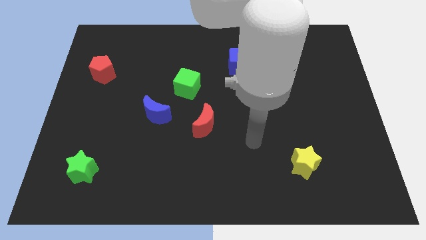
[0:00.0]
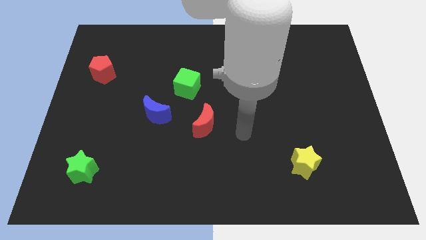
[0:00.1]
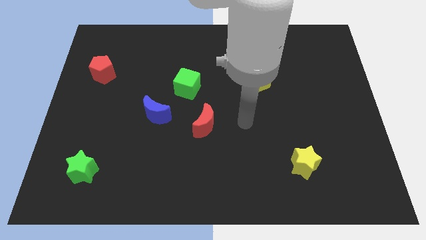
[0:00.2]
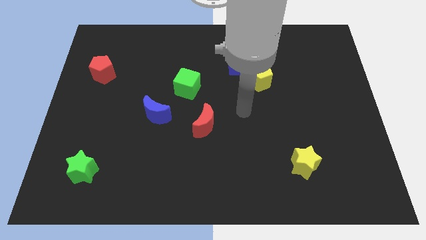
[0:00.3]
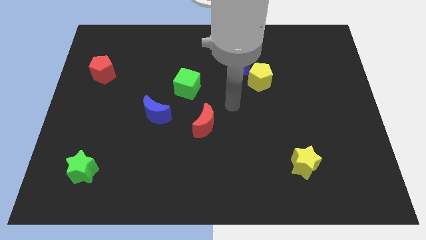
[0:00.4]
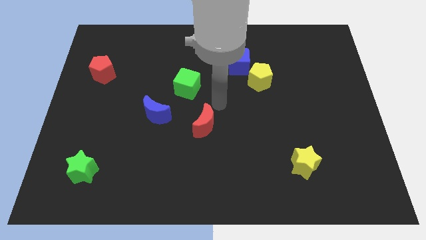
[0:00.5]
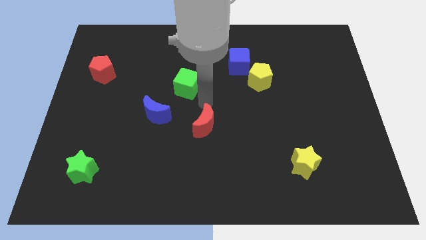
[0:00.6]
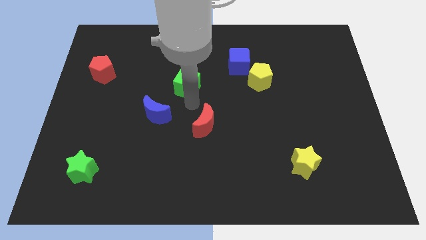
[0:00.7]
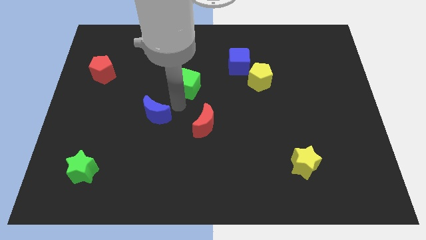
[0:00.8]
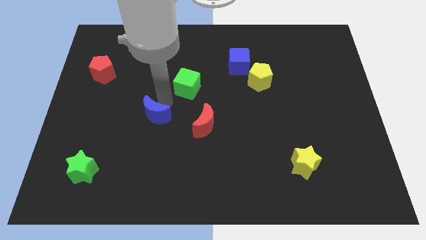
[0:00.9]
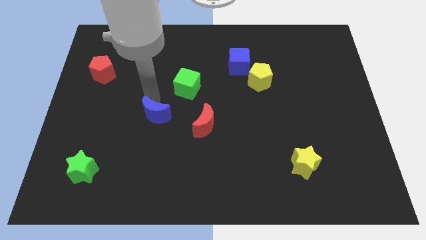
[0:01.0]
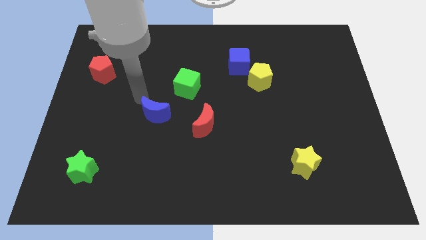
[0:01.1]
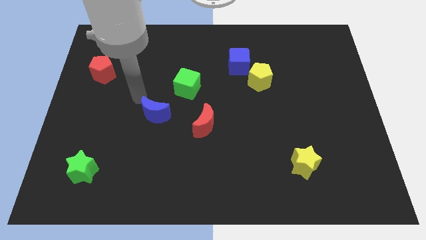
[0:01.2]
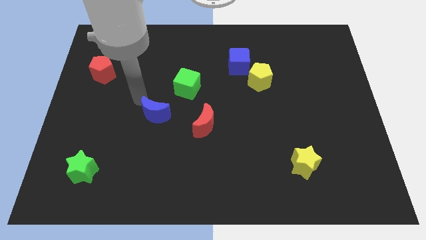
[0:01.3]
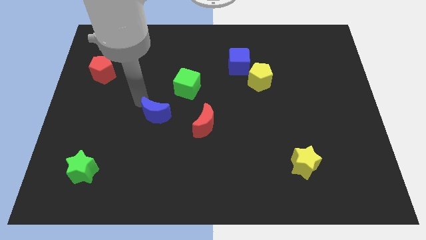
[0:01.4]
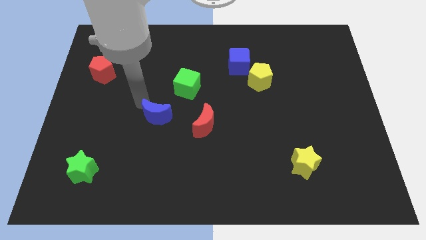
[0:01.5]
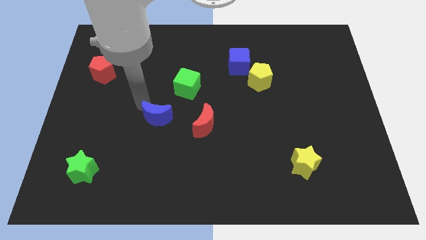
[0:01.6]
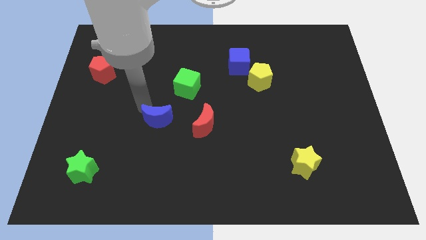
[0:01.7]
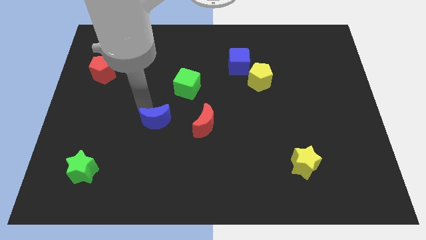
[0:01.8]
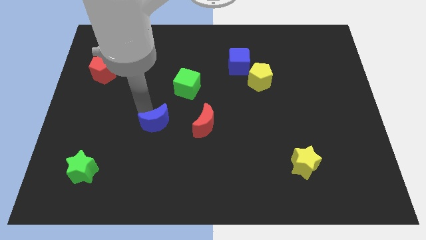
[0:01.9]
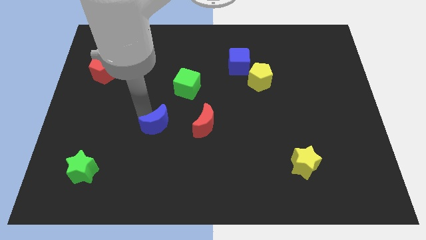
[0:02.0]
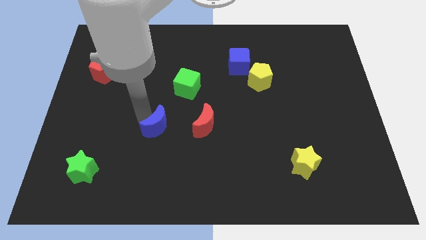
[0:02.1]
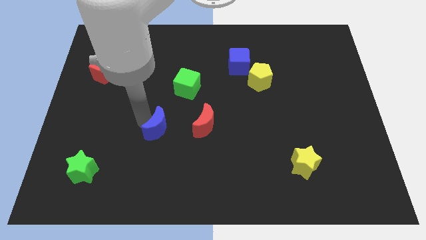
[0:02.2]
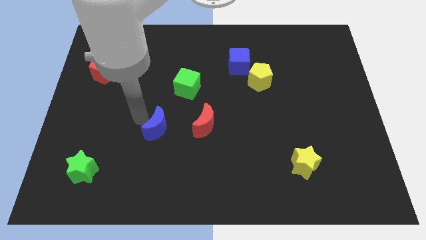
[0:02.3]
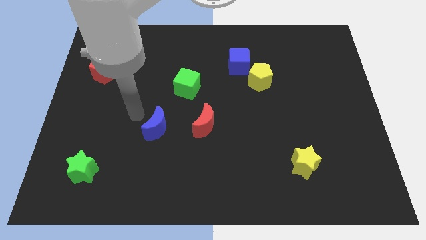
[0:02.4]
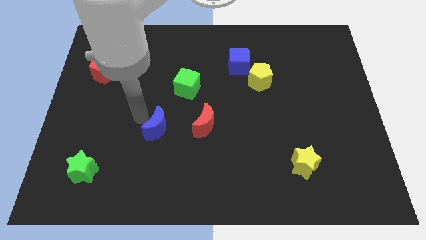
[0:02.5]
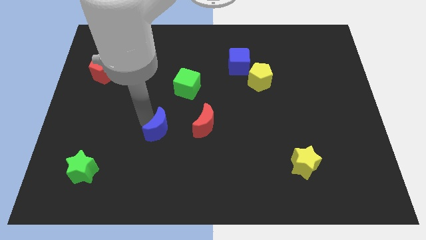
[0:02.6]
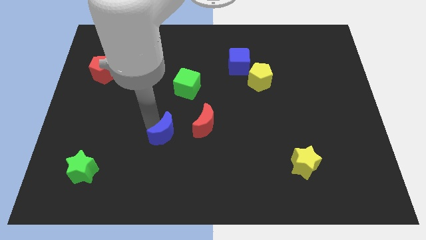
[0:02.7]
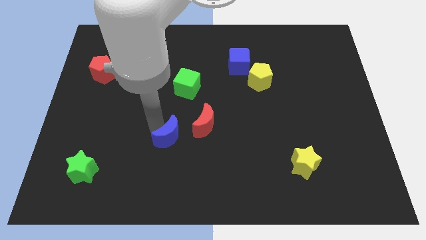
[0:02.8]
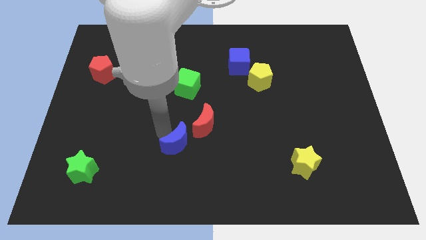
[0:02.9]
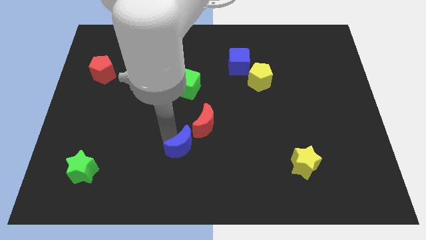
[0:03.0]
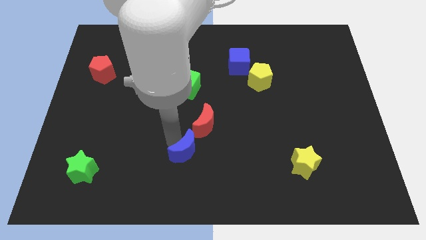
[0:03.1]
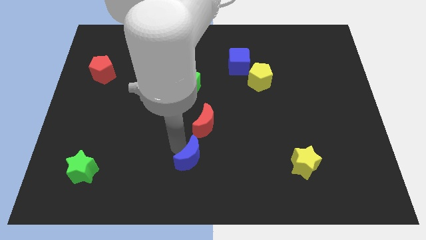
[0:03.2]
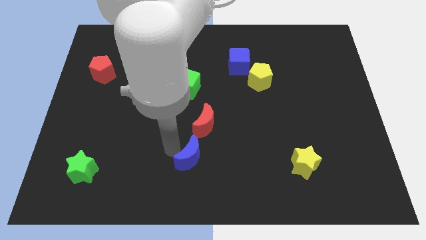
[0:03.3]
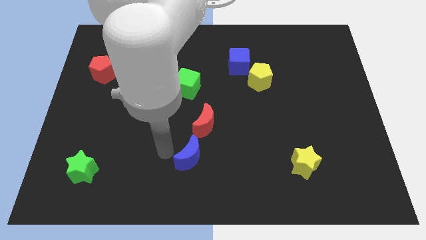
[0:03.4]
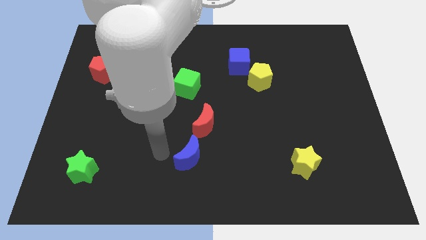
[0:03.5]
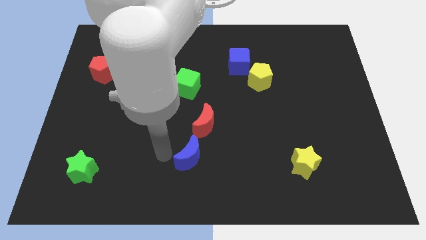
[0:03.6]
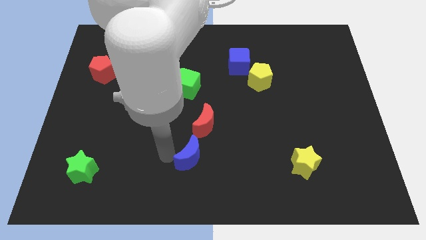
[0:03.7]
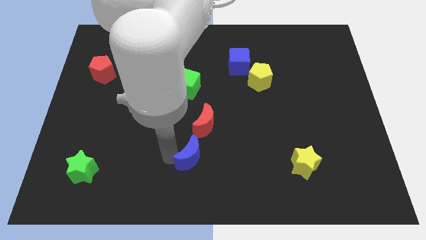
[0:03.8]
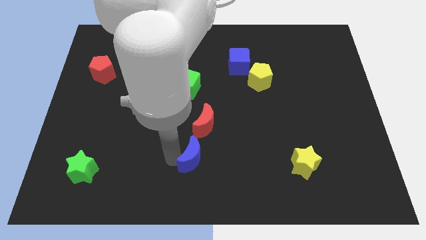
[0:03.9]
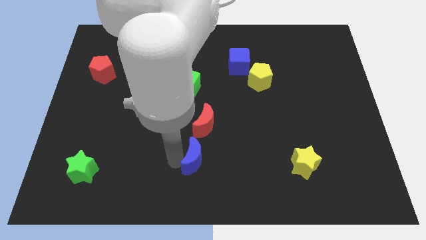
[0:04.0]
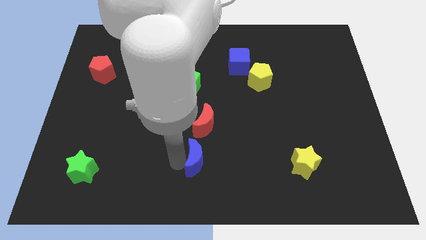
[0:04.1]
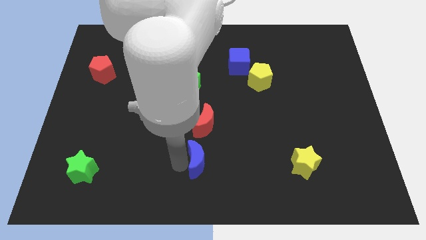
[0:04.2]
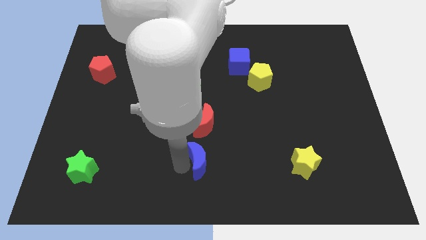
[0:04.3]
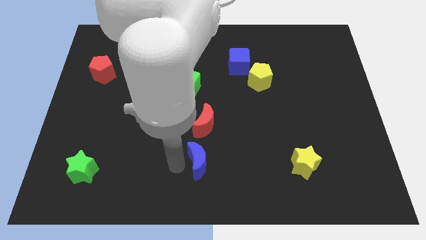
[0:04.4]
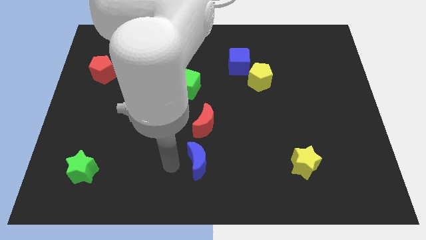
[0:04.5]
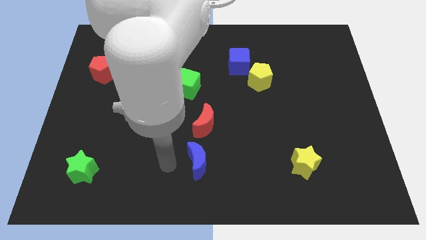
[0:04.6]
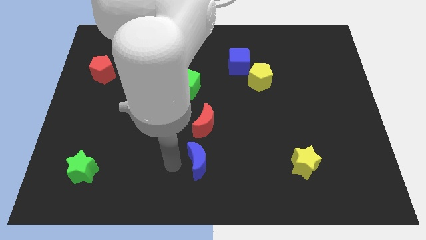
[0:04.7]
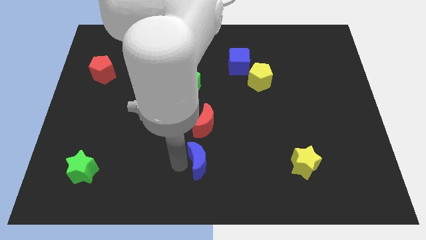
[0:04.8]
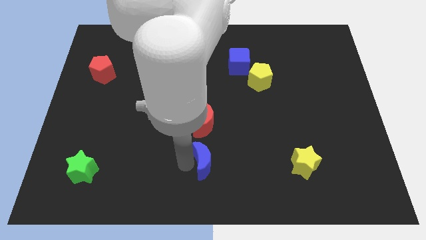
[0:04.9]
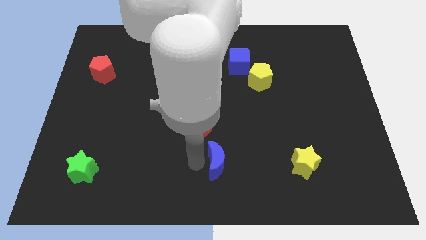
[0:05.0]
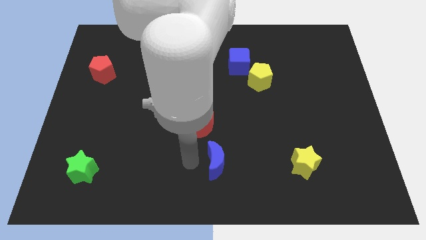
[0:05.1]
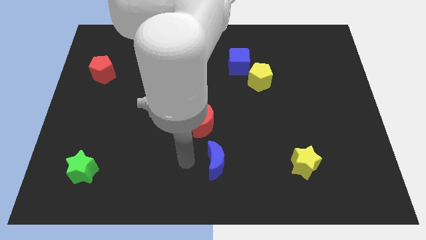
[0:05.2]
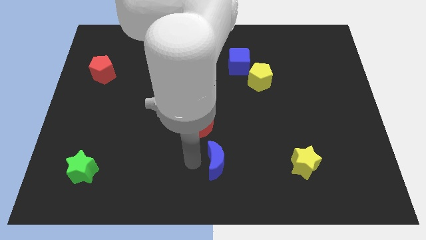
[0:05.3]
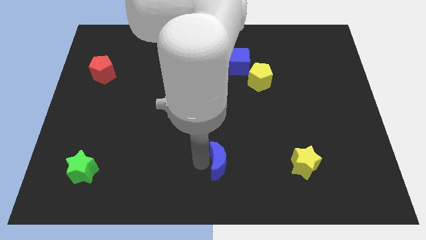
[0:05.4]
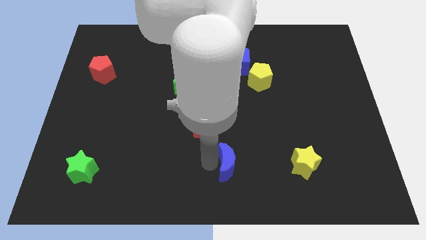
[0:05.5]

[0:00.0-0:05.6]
move the blue moon to the left of the yellow star

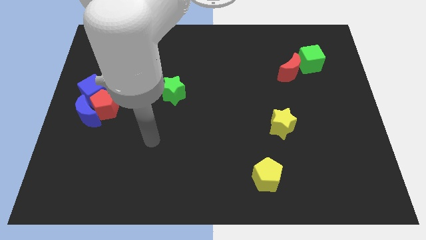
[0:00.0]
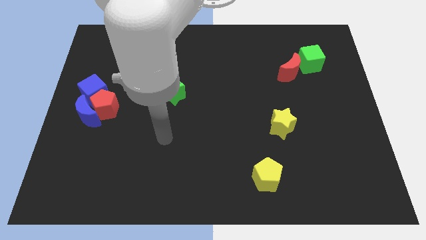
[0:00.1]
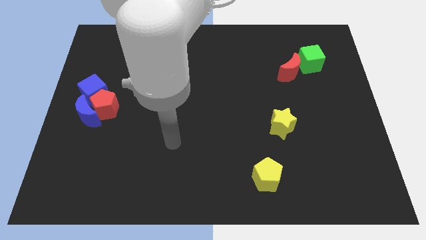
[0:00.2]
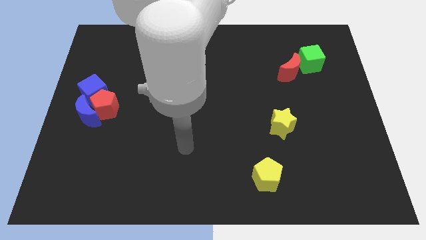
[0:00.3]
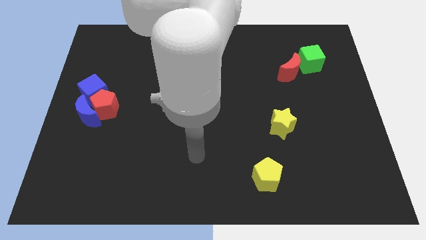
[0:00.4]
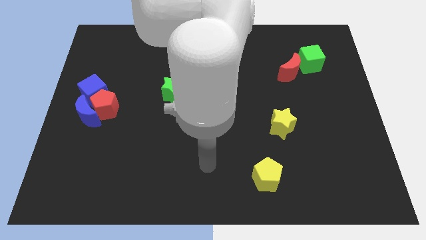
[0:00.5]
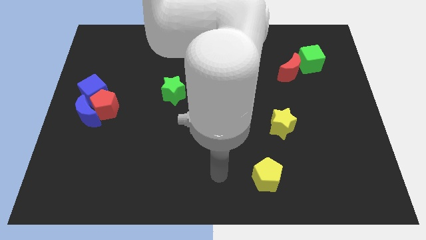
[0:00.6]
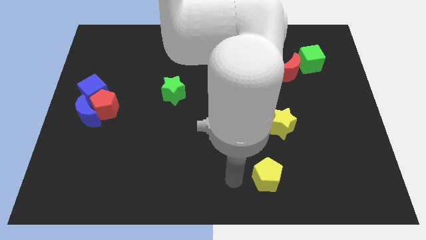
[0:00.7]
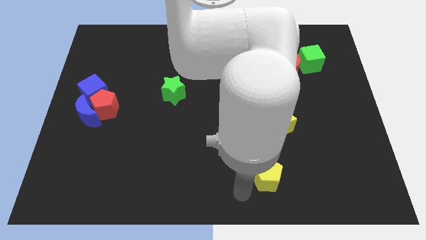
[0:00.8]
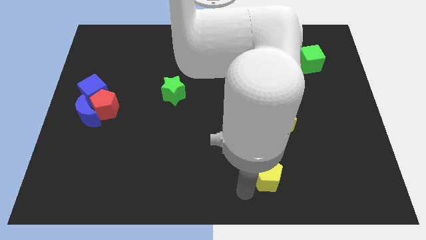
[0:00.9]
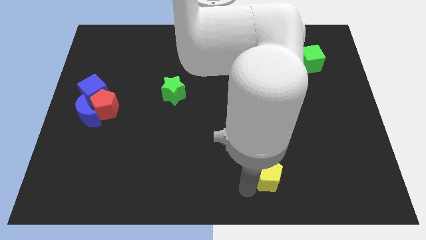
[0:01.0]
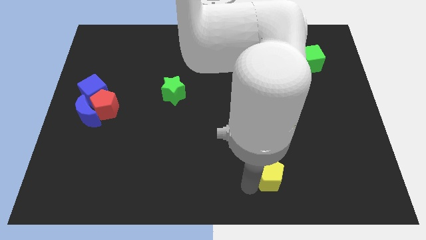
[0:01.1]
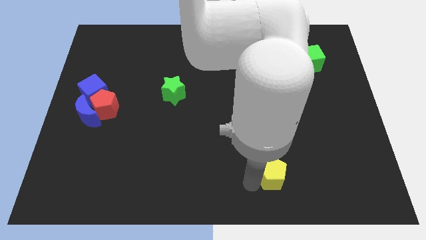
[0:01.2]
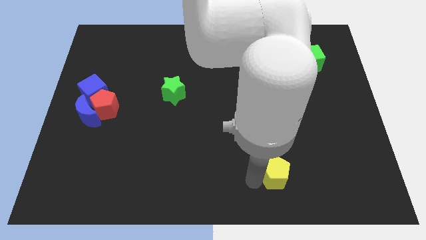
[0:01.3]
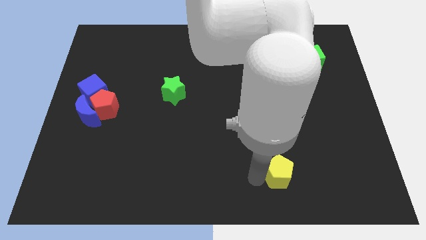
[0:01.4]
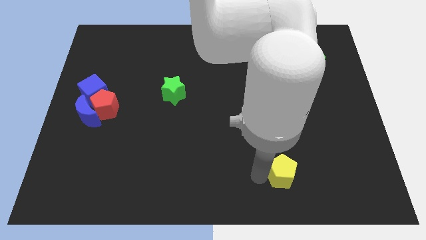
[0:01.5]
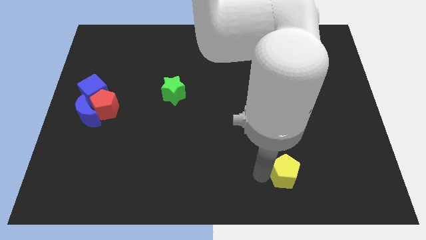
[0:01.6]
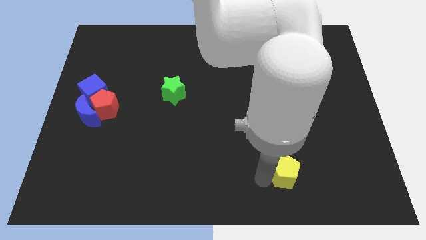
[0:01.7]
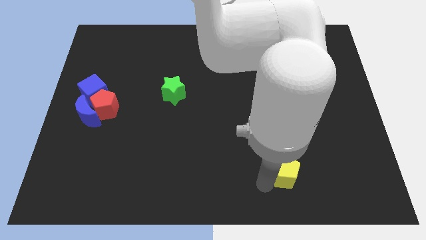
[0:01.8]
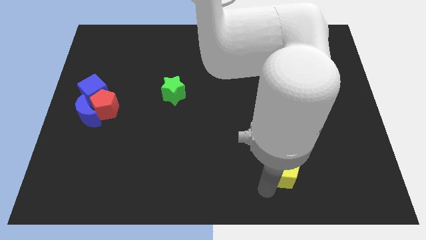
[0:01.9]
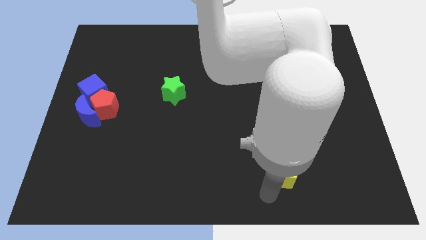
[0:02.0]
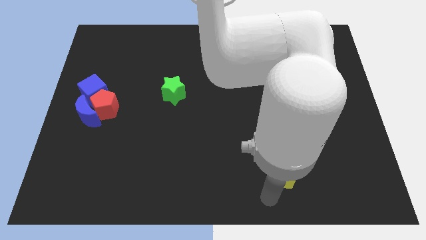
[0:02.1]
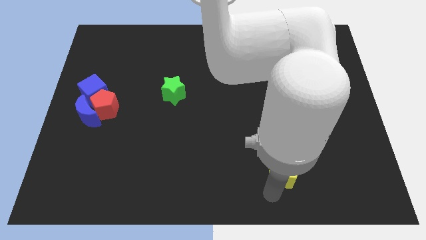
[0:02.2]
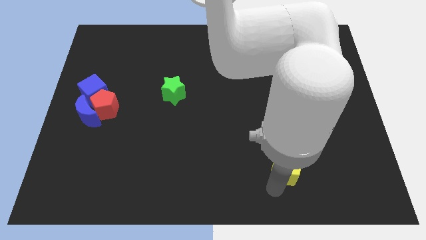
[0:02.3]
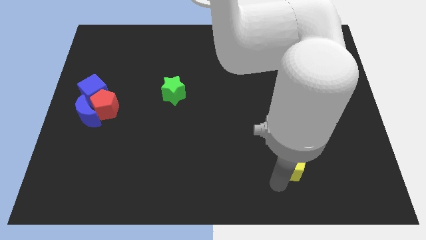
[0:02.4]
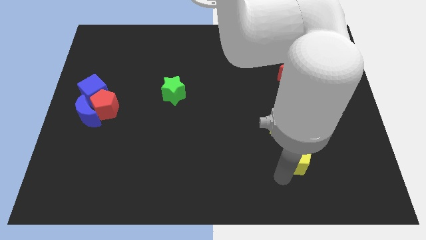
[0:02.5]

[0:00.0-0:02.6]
slide the yellow pentagon diagonally down and to the right of the yellow star
